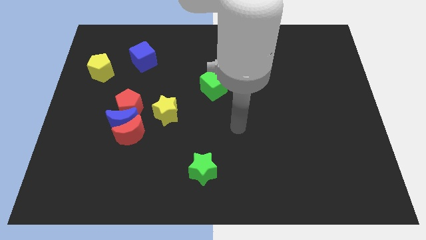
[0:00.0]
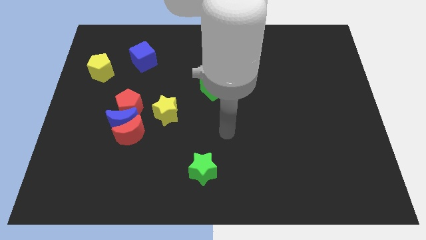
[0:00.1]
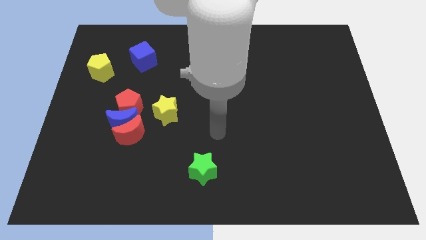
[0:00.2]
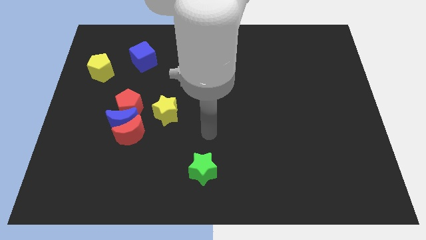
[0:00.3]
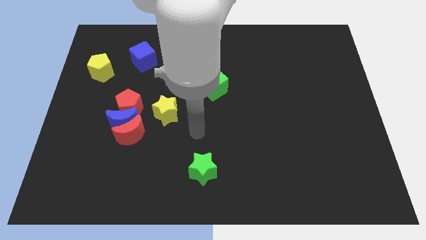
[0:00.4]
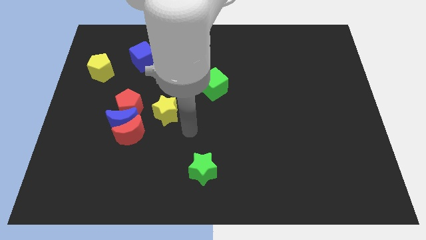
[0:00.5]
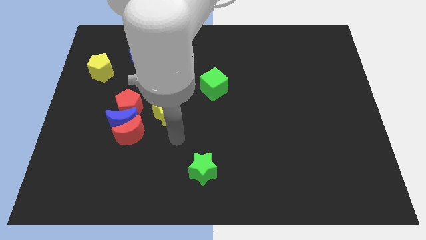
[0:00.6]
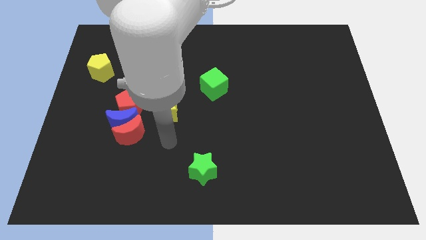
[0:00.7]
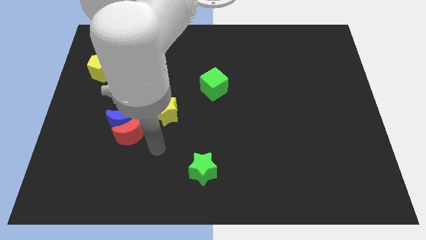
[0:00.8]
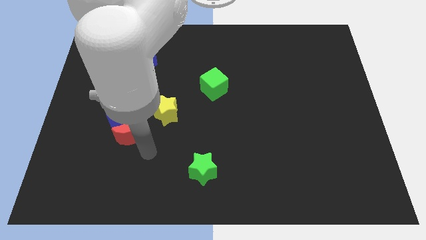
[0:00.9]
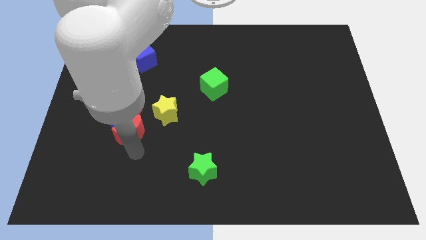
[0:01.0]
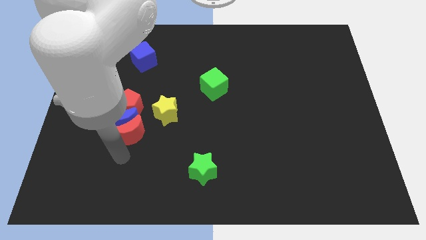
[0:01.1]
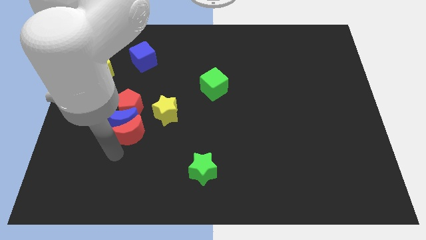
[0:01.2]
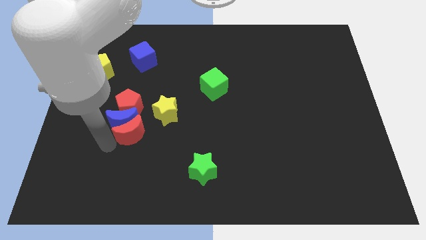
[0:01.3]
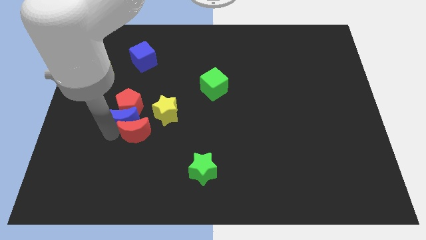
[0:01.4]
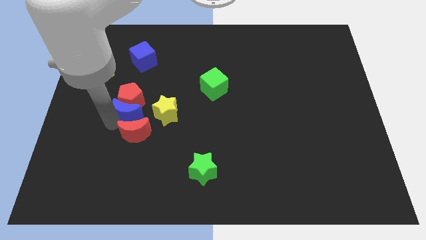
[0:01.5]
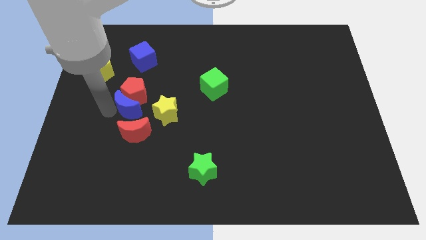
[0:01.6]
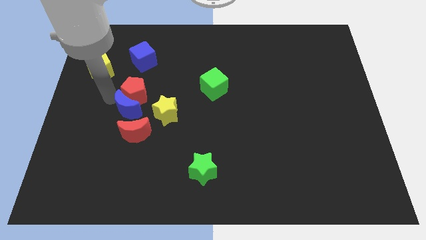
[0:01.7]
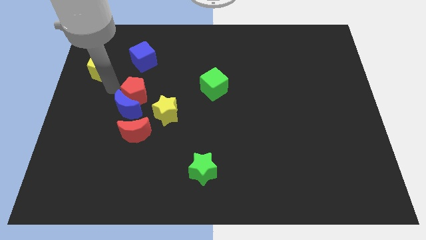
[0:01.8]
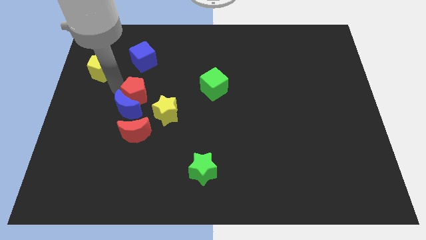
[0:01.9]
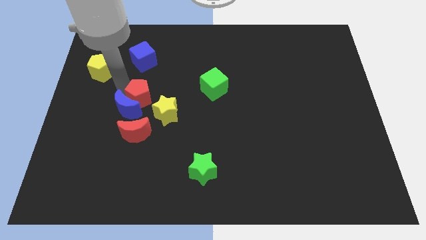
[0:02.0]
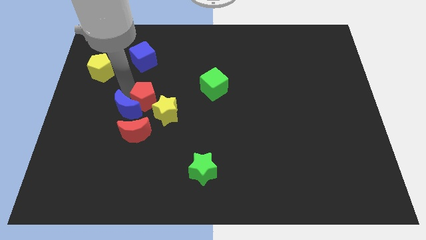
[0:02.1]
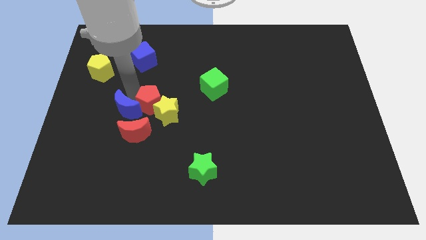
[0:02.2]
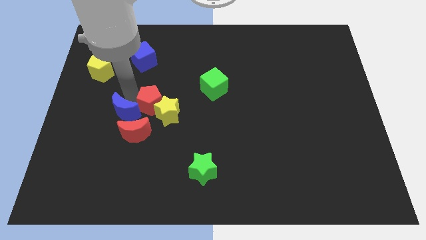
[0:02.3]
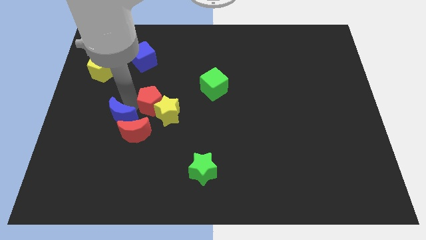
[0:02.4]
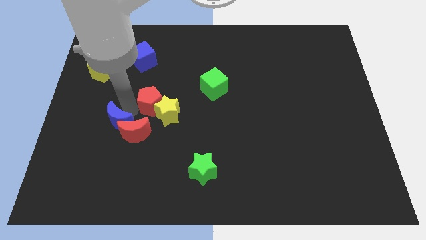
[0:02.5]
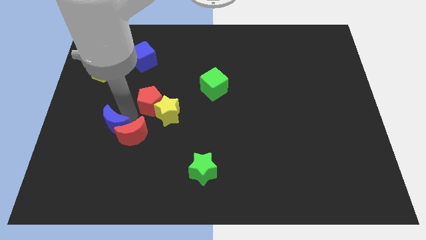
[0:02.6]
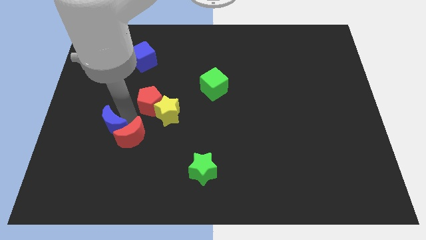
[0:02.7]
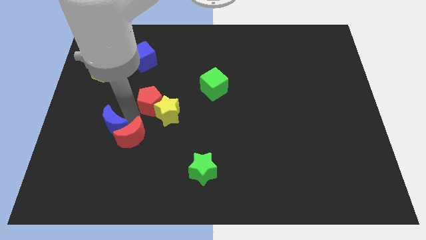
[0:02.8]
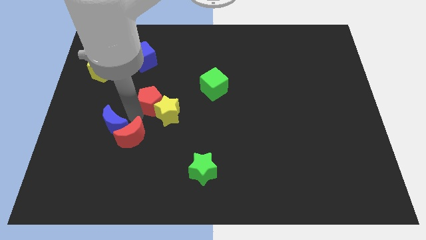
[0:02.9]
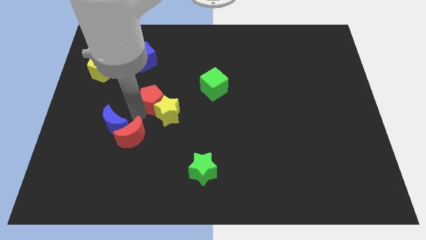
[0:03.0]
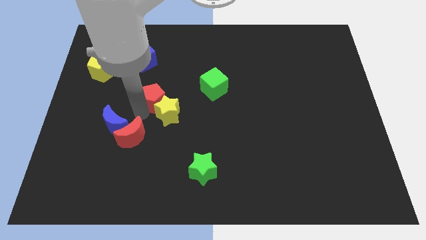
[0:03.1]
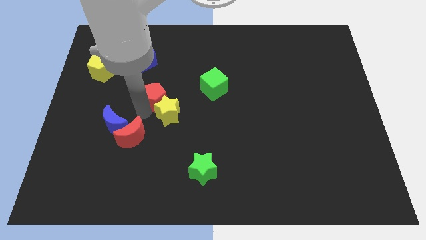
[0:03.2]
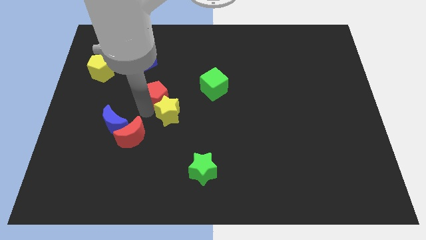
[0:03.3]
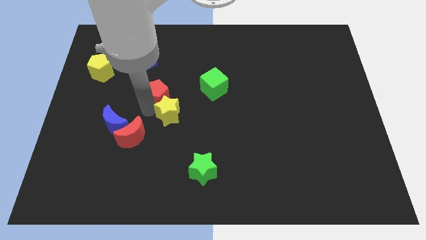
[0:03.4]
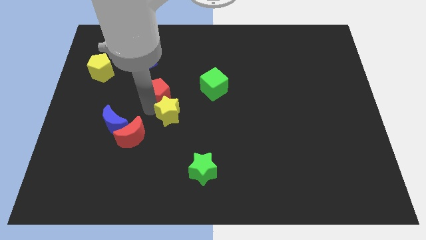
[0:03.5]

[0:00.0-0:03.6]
move the red pentagon up and to the right a little

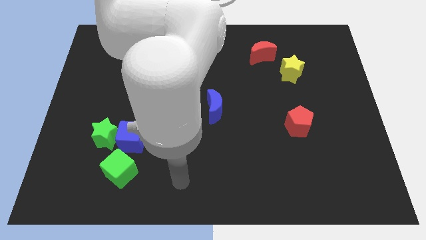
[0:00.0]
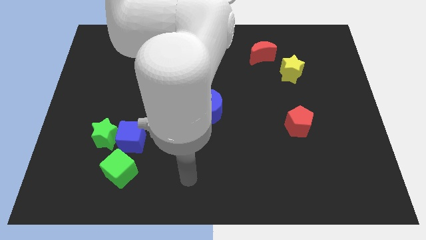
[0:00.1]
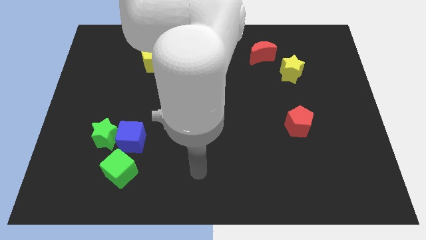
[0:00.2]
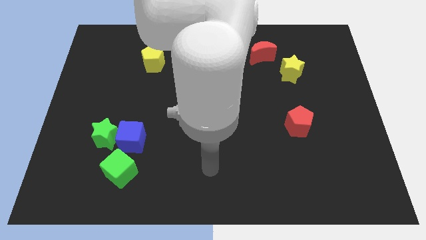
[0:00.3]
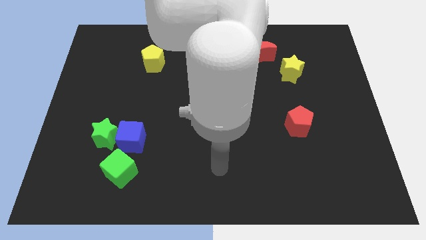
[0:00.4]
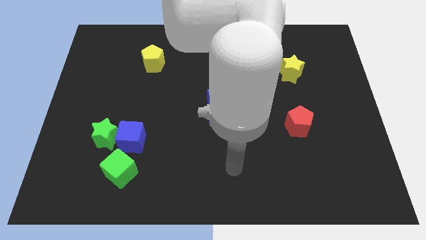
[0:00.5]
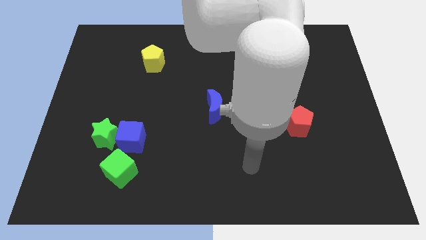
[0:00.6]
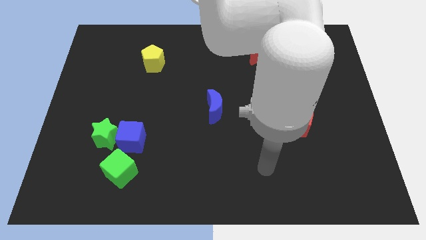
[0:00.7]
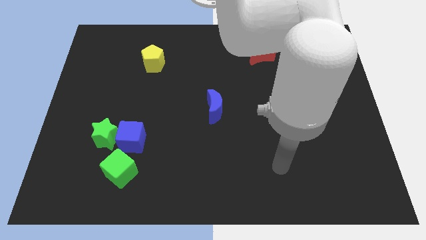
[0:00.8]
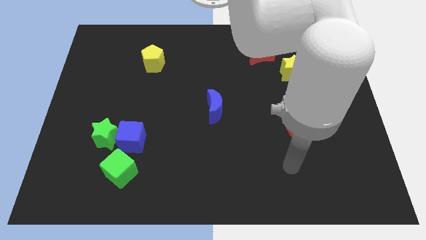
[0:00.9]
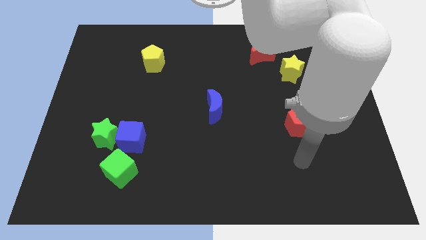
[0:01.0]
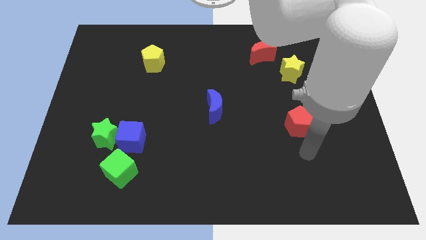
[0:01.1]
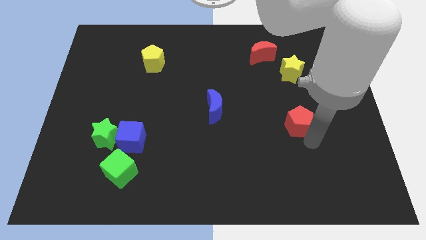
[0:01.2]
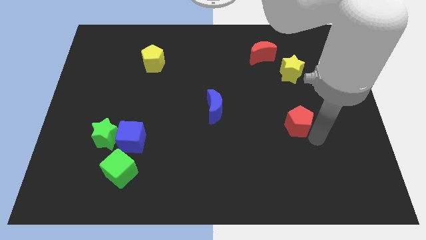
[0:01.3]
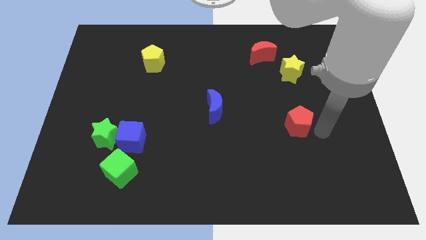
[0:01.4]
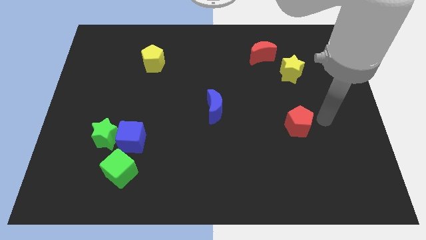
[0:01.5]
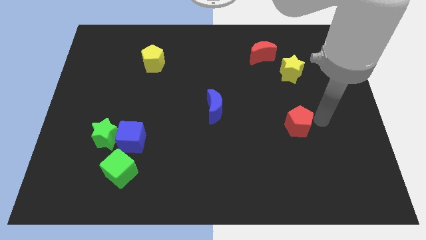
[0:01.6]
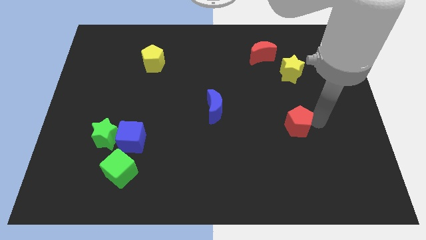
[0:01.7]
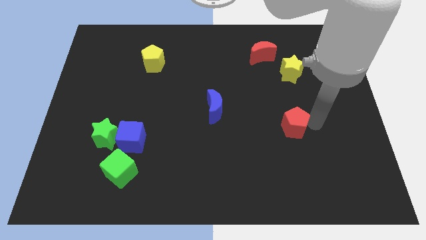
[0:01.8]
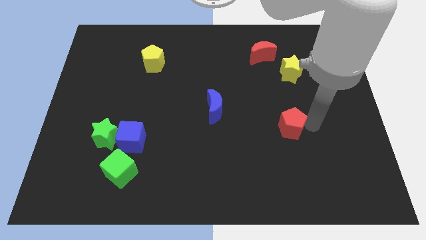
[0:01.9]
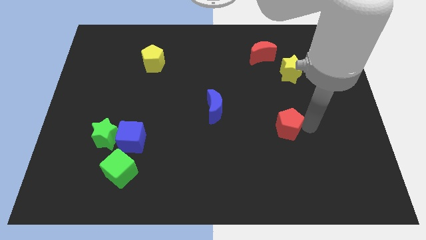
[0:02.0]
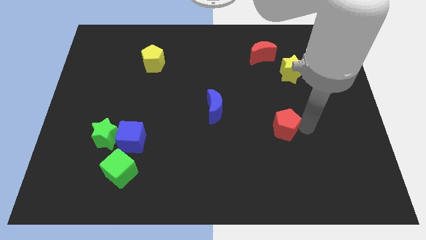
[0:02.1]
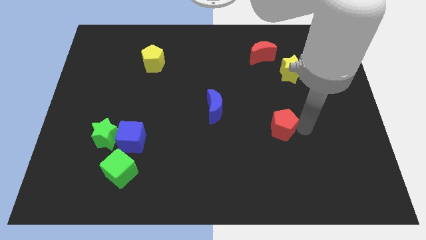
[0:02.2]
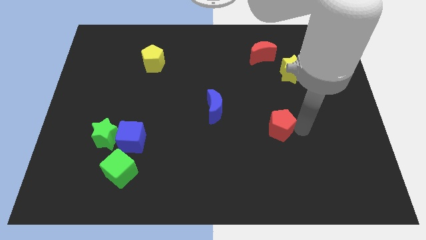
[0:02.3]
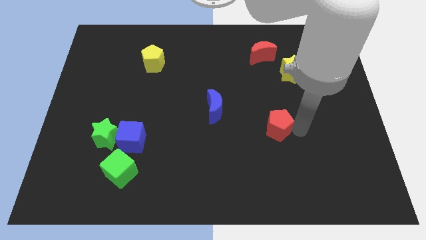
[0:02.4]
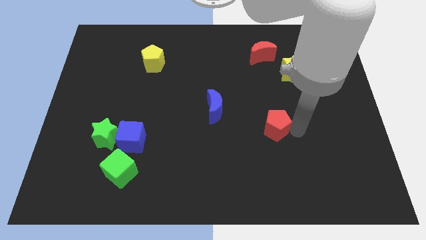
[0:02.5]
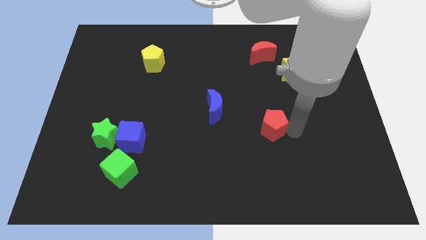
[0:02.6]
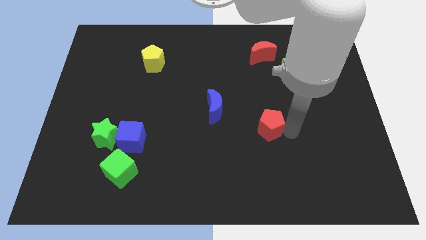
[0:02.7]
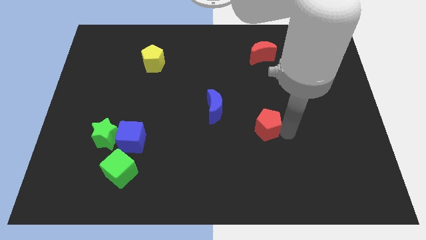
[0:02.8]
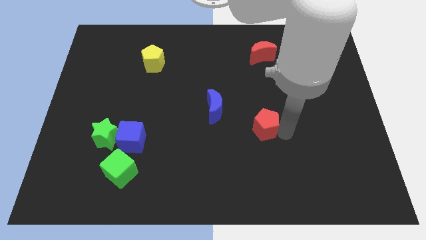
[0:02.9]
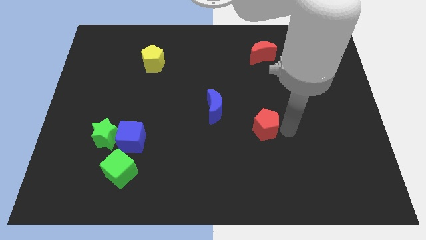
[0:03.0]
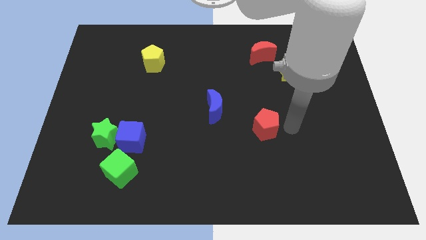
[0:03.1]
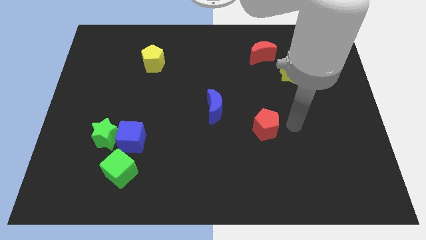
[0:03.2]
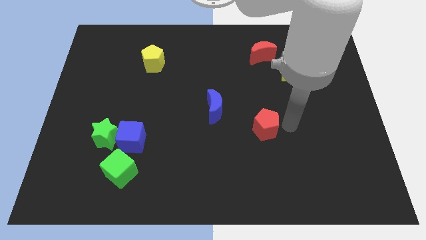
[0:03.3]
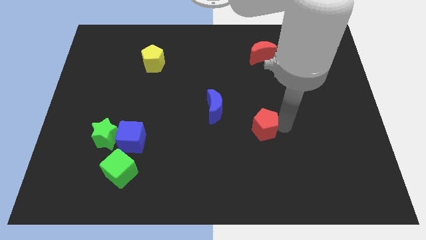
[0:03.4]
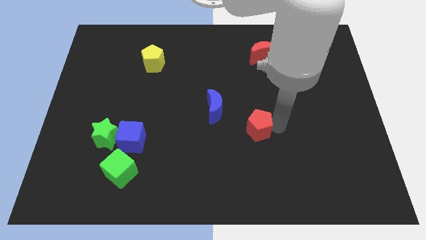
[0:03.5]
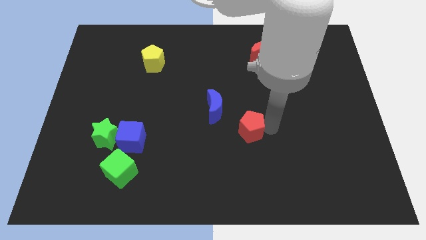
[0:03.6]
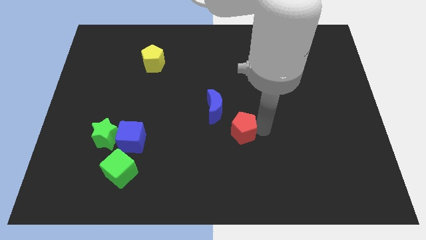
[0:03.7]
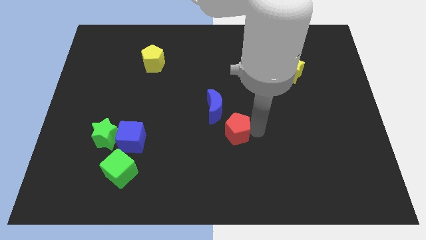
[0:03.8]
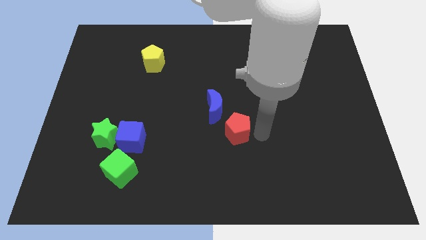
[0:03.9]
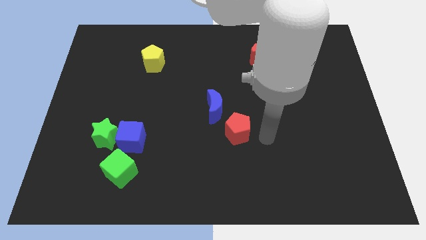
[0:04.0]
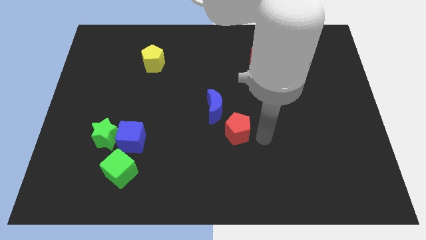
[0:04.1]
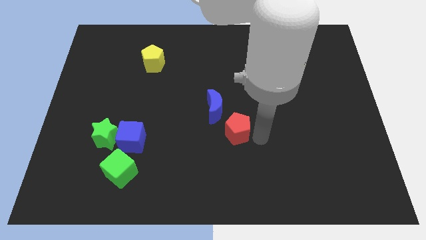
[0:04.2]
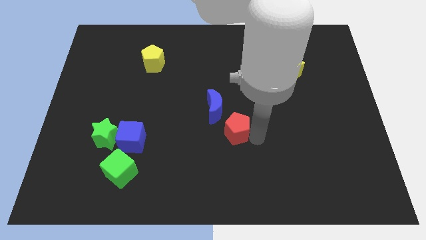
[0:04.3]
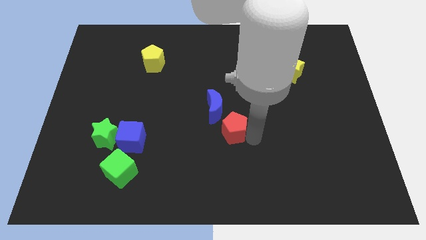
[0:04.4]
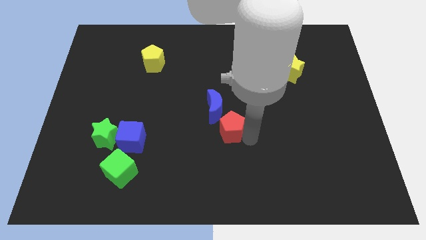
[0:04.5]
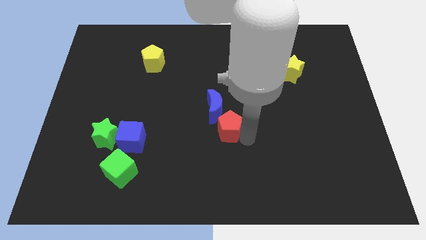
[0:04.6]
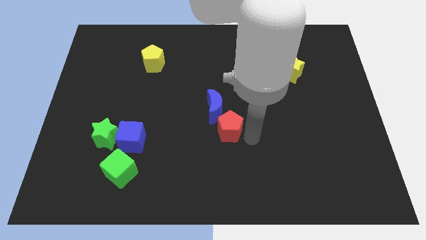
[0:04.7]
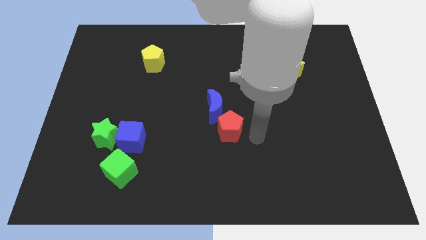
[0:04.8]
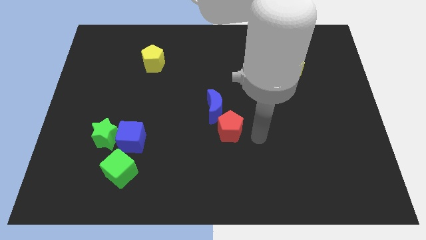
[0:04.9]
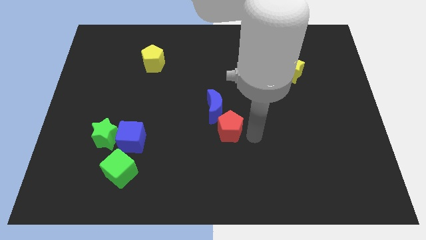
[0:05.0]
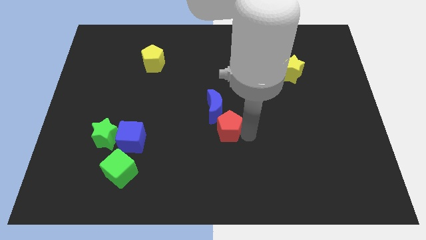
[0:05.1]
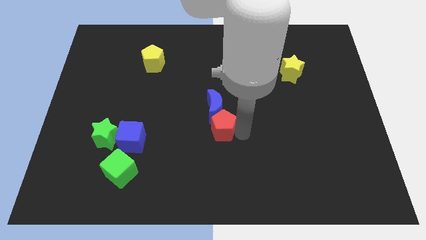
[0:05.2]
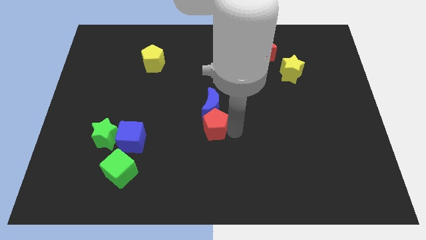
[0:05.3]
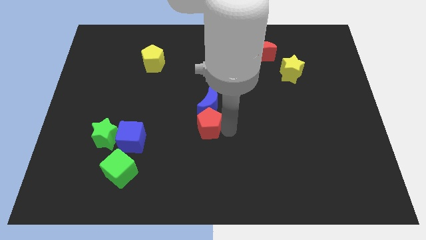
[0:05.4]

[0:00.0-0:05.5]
push the red pentagon left
